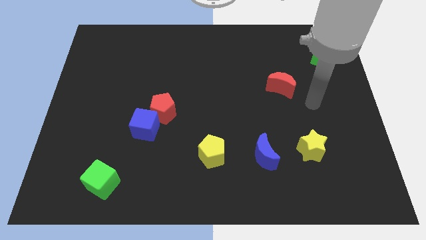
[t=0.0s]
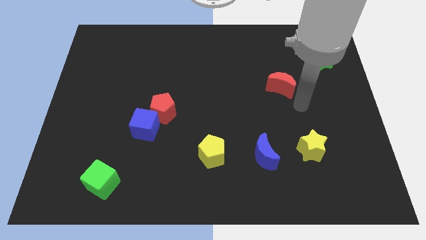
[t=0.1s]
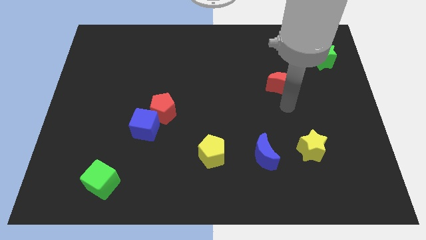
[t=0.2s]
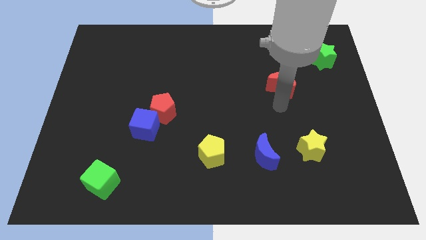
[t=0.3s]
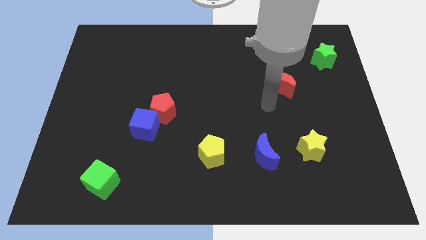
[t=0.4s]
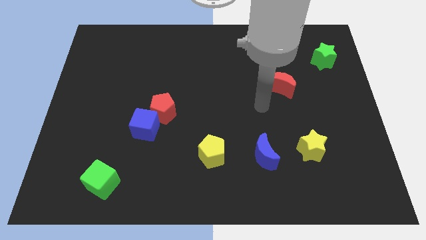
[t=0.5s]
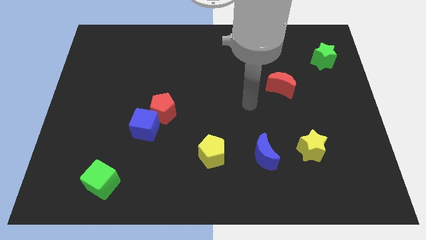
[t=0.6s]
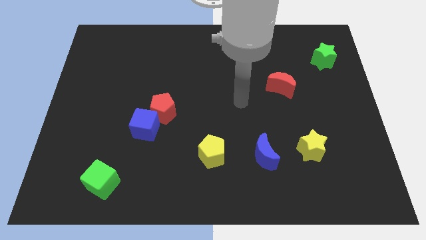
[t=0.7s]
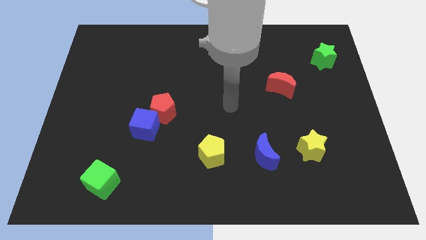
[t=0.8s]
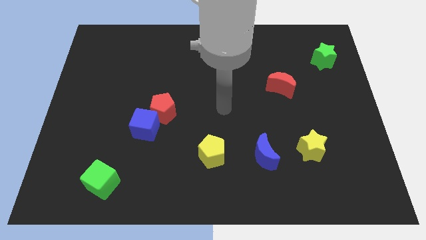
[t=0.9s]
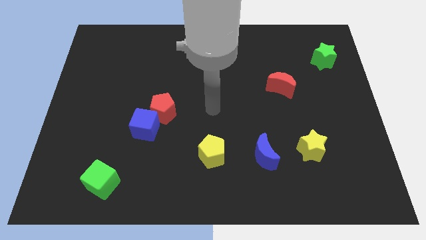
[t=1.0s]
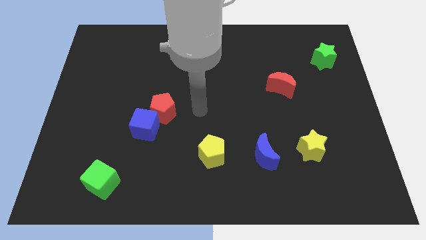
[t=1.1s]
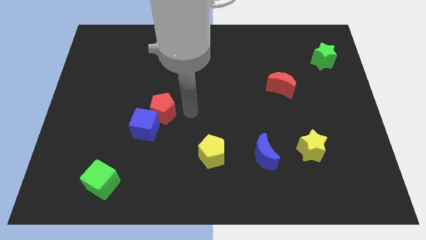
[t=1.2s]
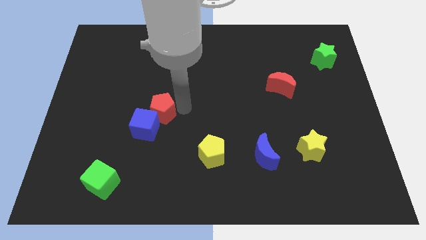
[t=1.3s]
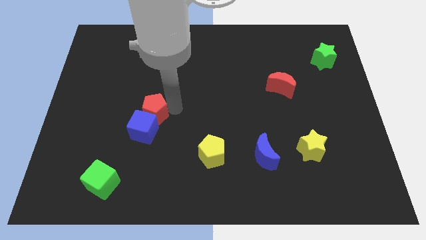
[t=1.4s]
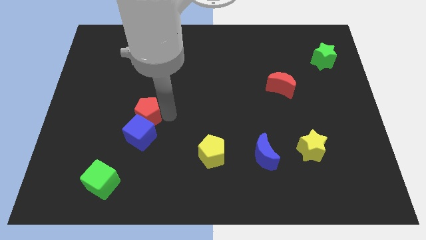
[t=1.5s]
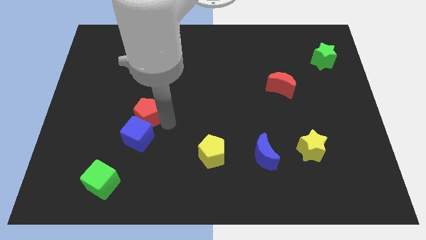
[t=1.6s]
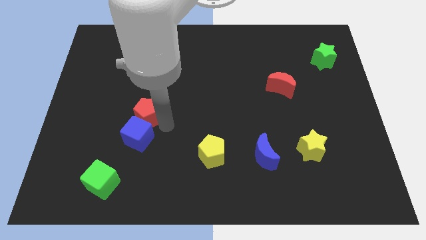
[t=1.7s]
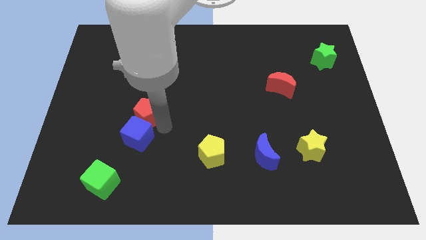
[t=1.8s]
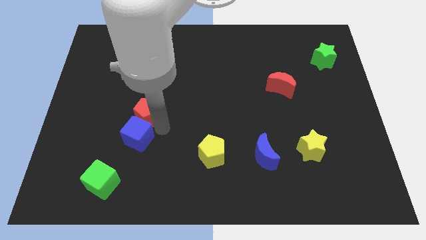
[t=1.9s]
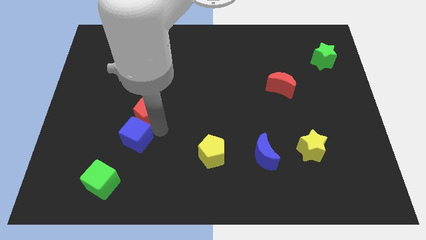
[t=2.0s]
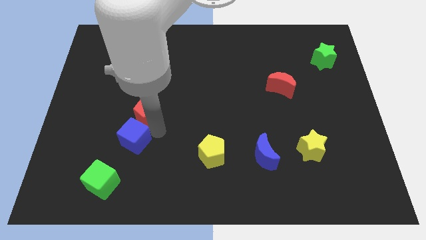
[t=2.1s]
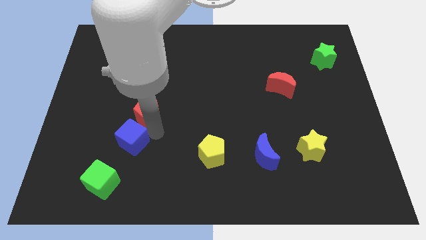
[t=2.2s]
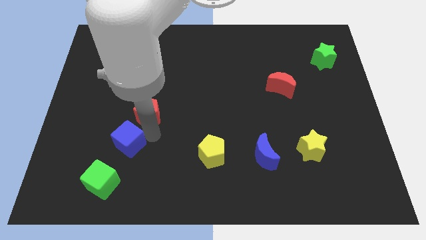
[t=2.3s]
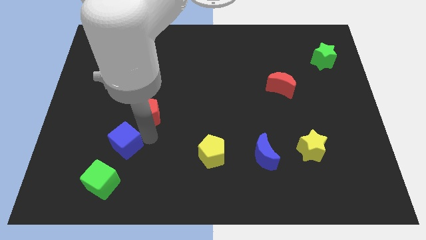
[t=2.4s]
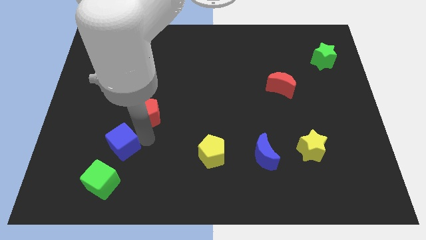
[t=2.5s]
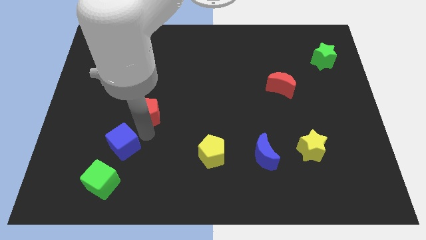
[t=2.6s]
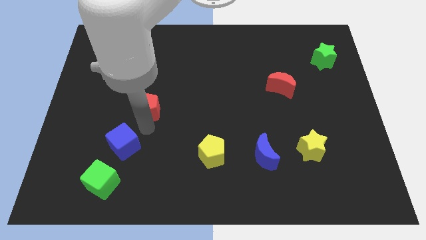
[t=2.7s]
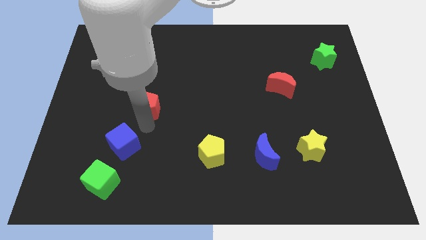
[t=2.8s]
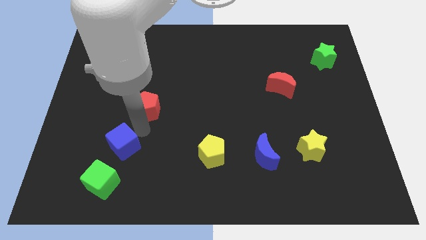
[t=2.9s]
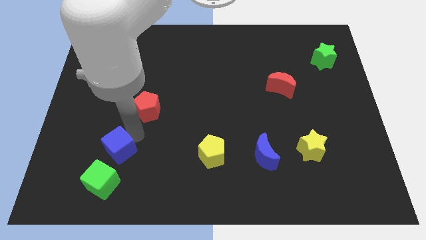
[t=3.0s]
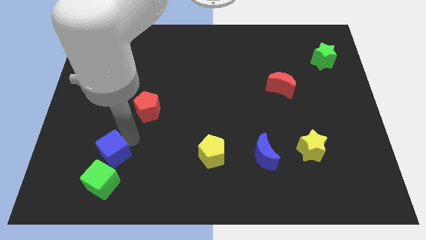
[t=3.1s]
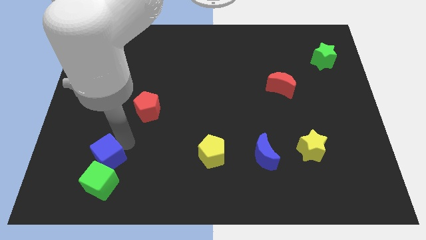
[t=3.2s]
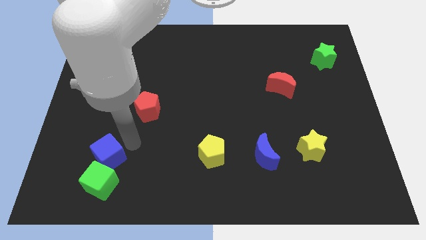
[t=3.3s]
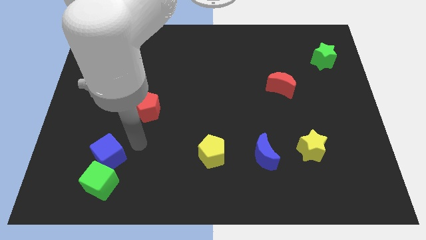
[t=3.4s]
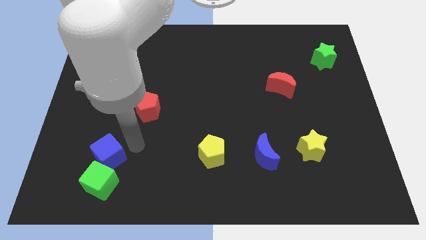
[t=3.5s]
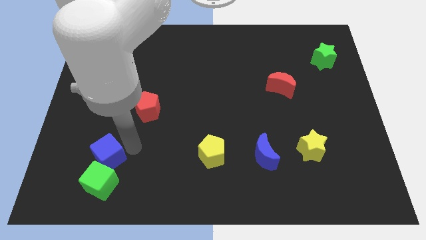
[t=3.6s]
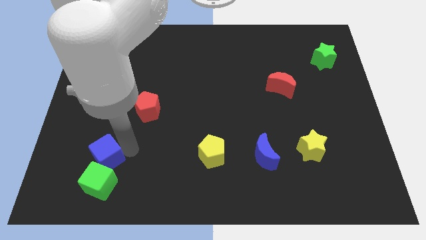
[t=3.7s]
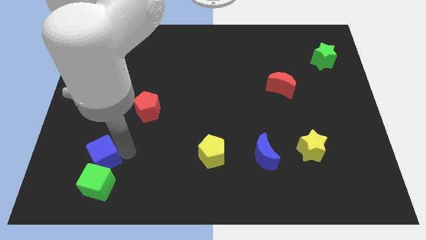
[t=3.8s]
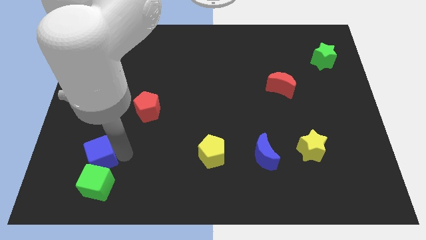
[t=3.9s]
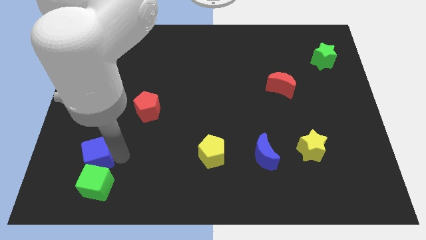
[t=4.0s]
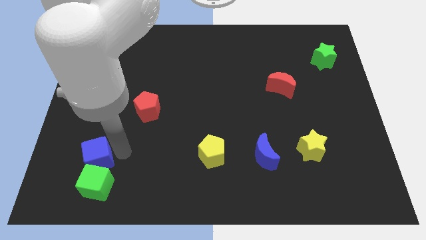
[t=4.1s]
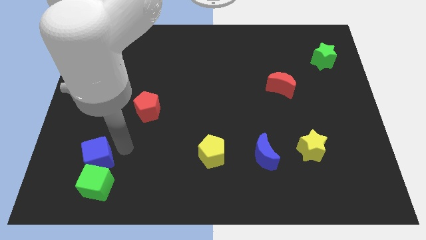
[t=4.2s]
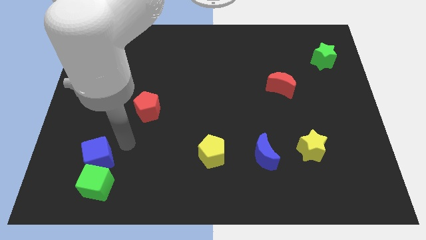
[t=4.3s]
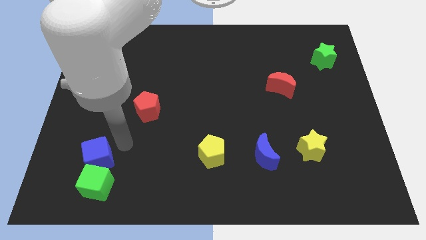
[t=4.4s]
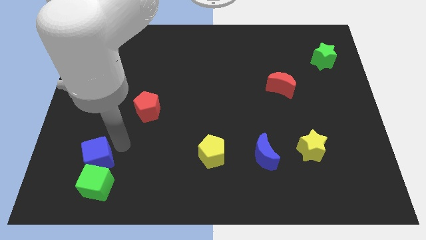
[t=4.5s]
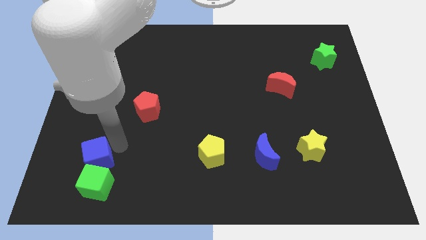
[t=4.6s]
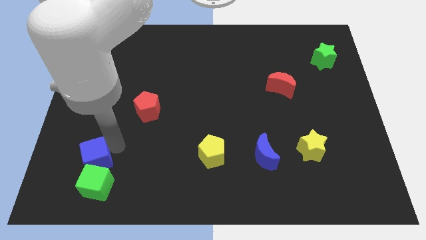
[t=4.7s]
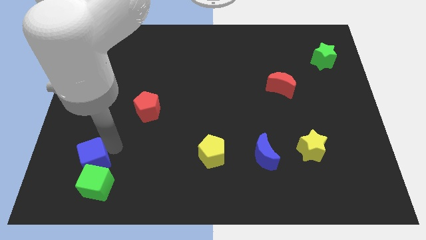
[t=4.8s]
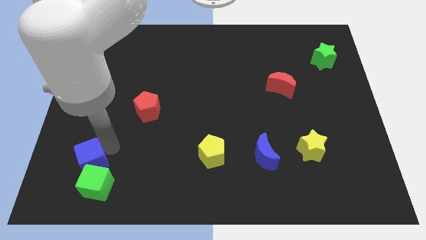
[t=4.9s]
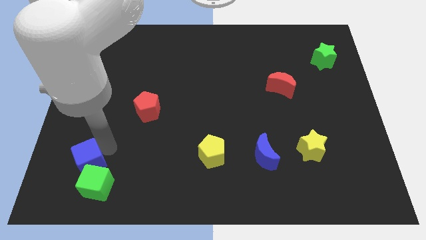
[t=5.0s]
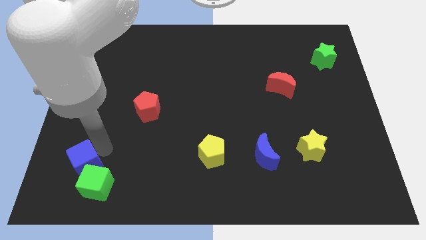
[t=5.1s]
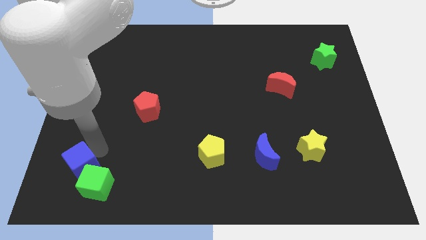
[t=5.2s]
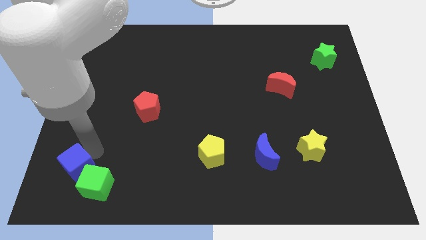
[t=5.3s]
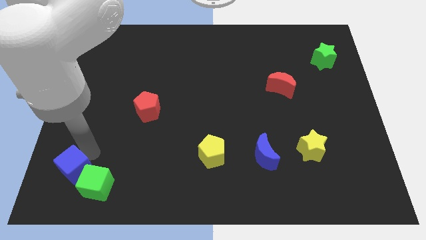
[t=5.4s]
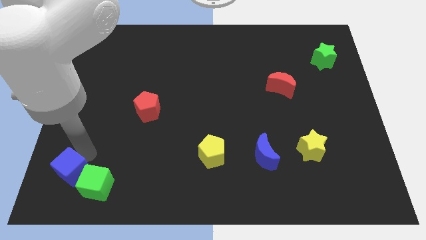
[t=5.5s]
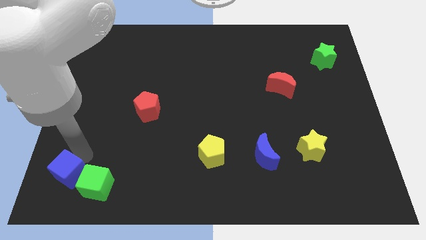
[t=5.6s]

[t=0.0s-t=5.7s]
put the blue cube to the bottom left corner

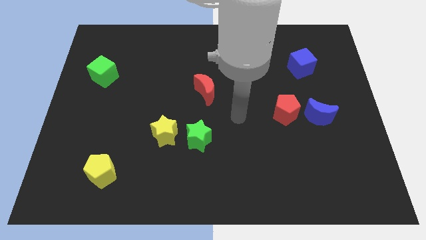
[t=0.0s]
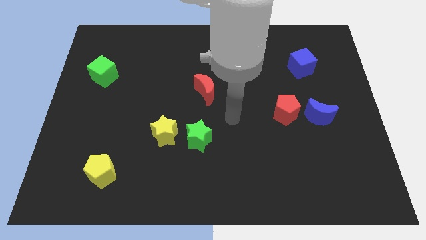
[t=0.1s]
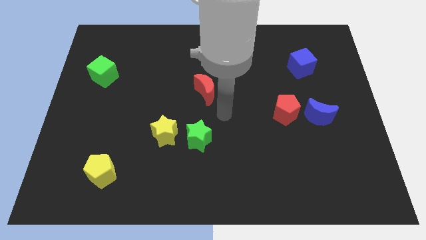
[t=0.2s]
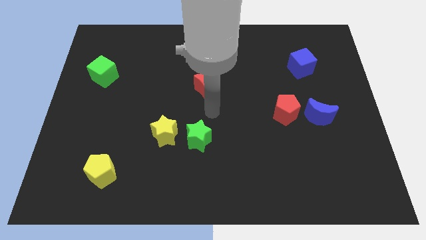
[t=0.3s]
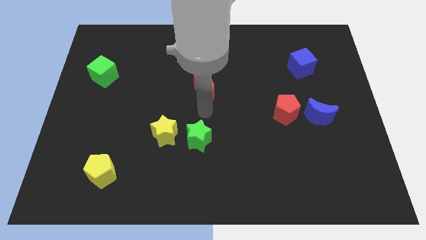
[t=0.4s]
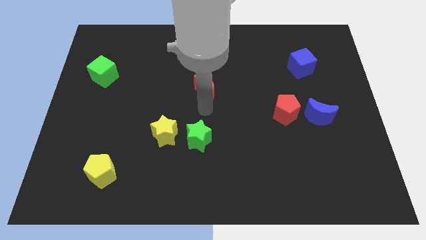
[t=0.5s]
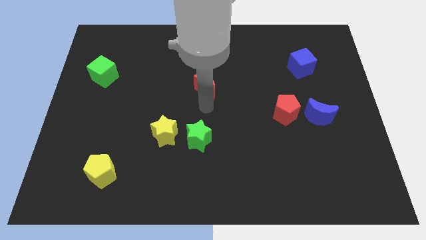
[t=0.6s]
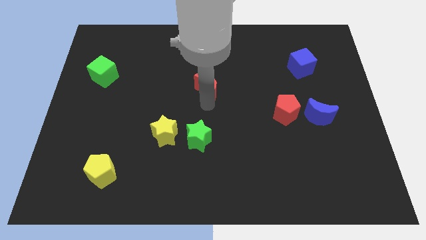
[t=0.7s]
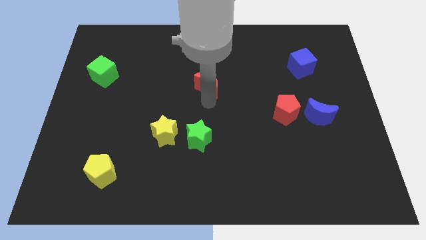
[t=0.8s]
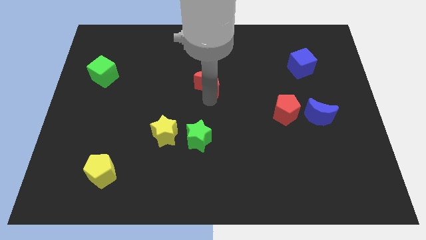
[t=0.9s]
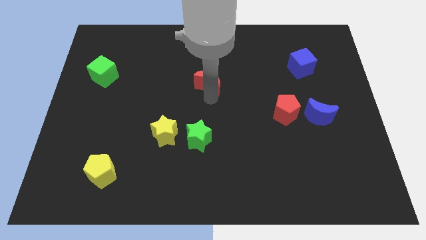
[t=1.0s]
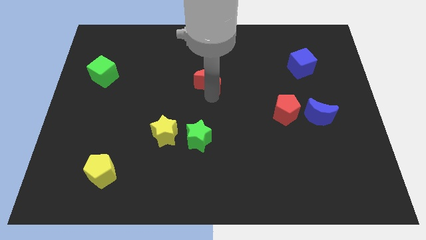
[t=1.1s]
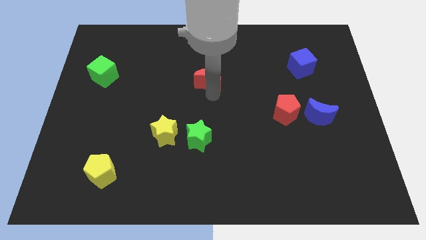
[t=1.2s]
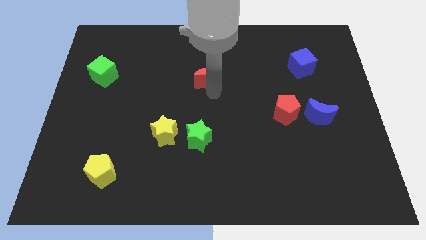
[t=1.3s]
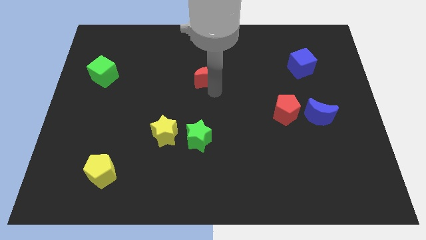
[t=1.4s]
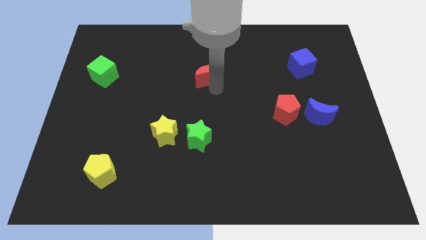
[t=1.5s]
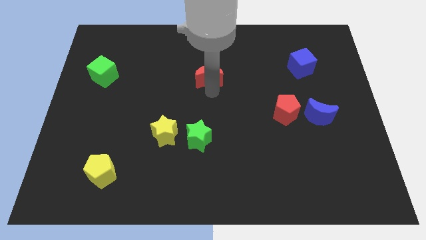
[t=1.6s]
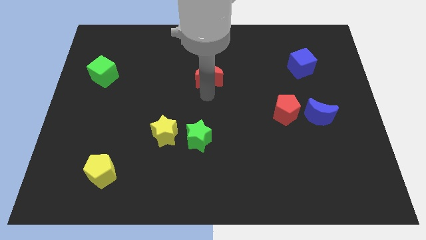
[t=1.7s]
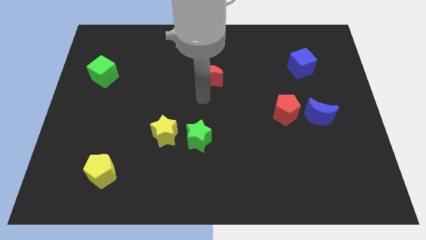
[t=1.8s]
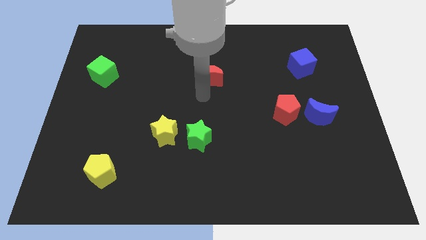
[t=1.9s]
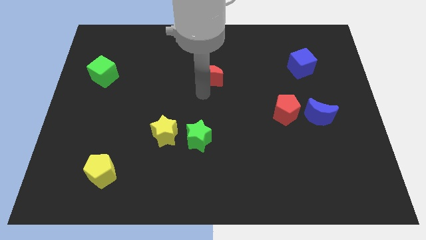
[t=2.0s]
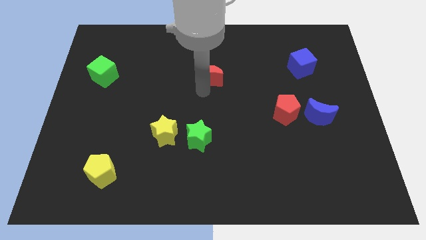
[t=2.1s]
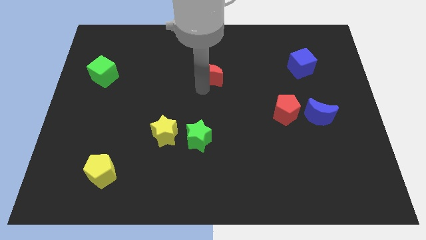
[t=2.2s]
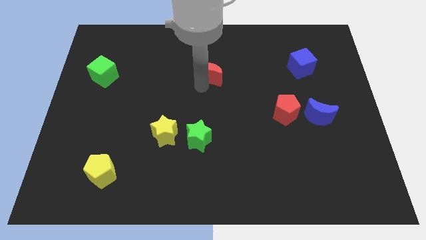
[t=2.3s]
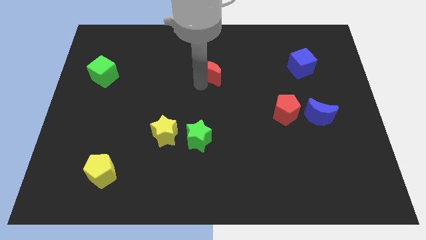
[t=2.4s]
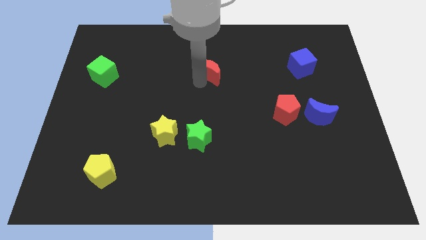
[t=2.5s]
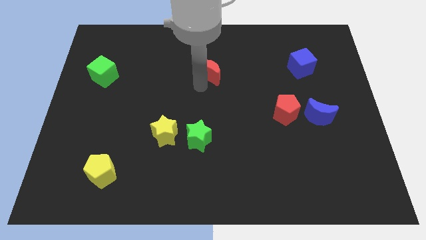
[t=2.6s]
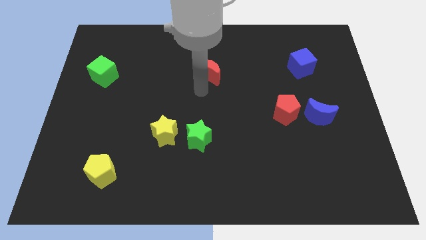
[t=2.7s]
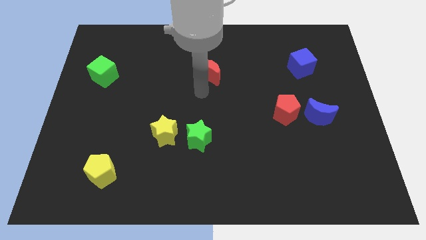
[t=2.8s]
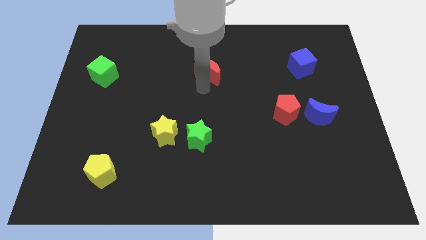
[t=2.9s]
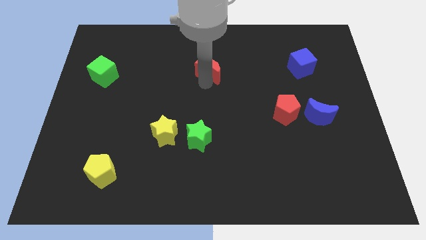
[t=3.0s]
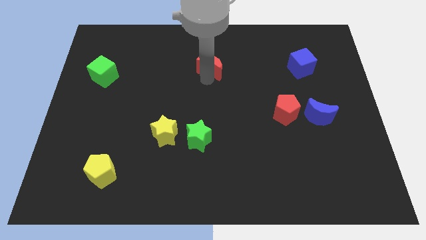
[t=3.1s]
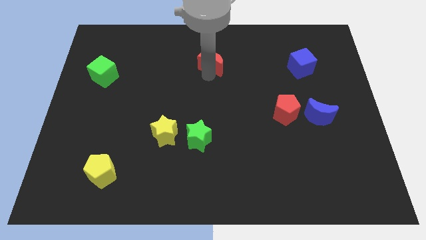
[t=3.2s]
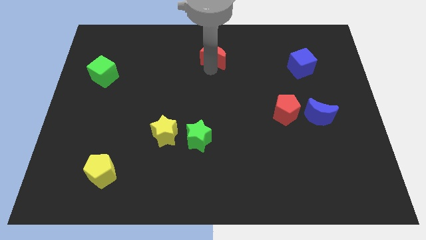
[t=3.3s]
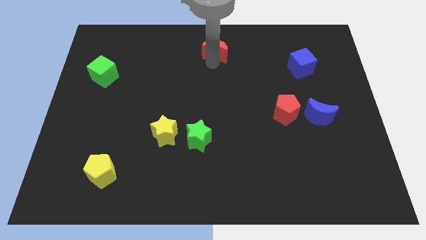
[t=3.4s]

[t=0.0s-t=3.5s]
push the red moon to the towards your base
